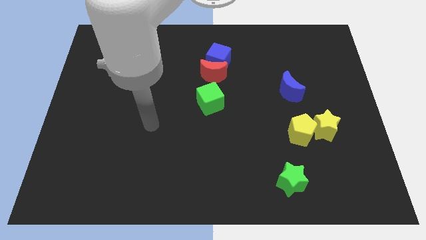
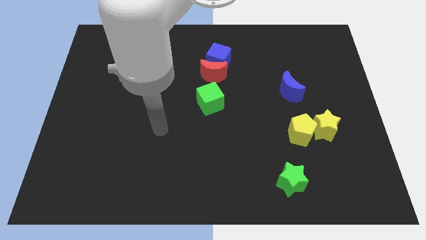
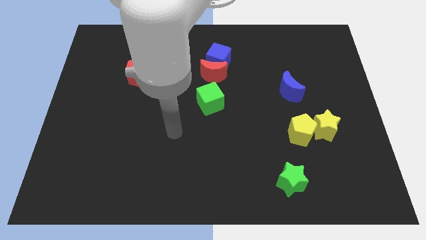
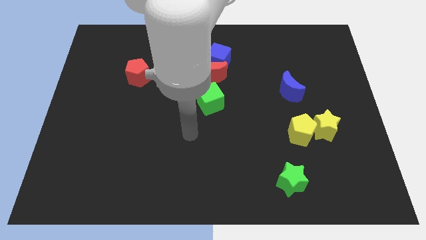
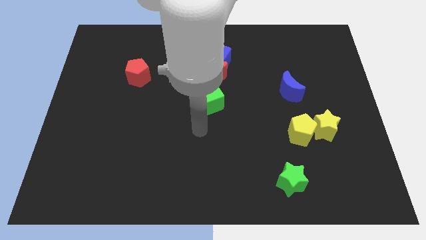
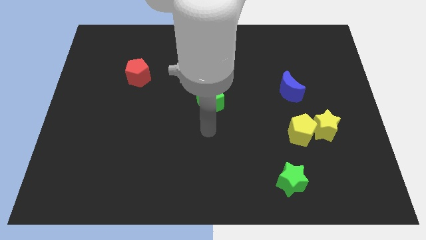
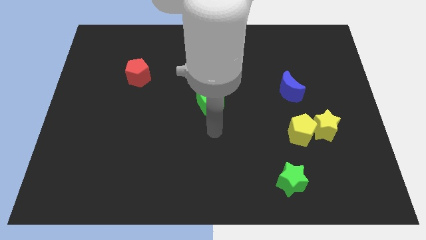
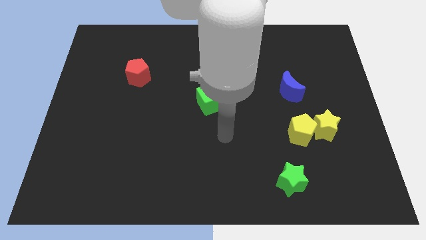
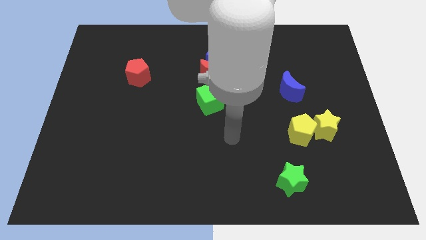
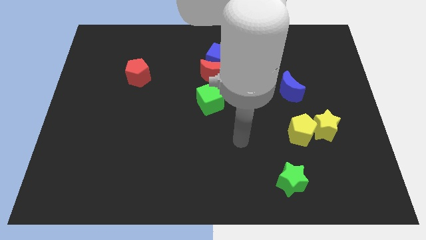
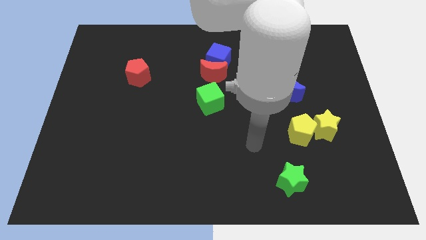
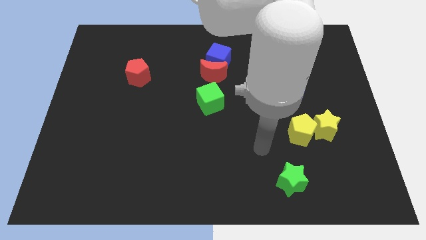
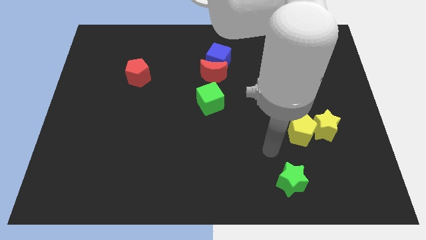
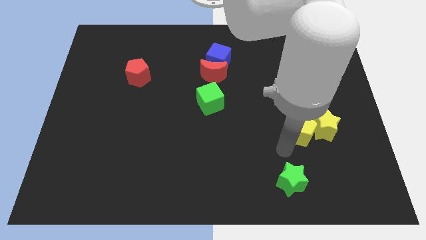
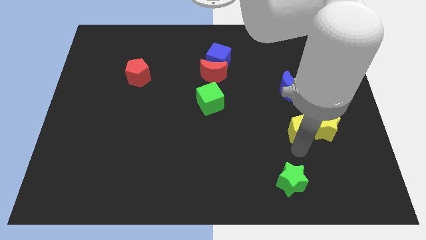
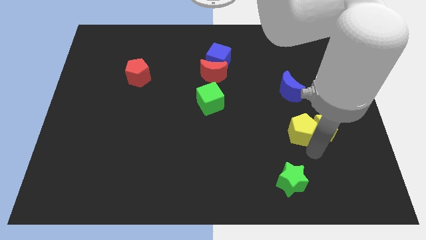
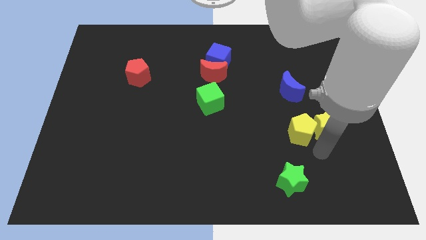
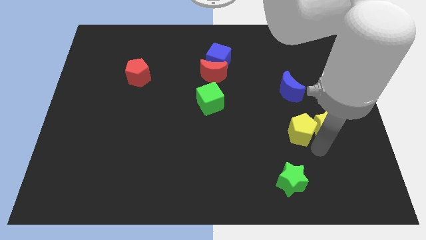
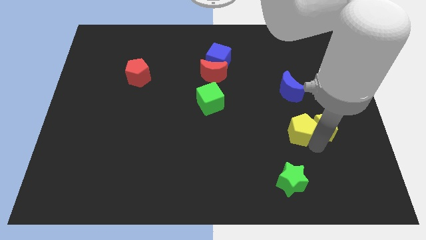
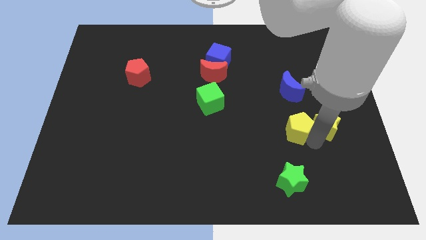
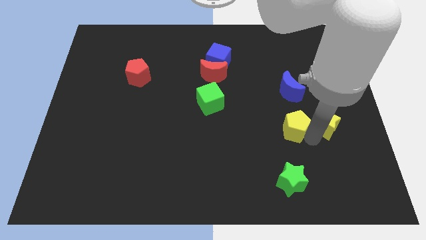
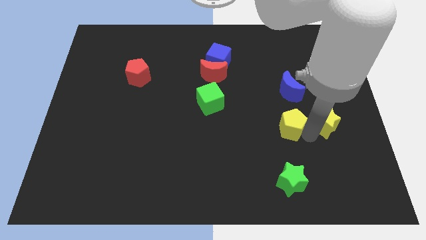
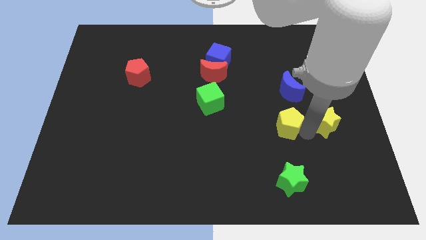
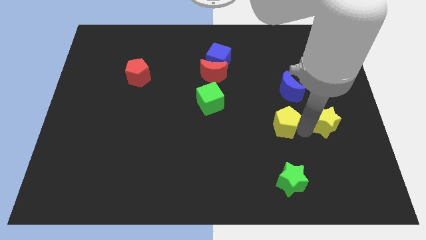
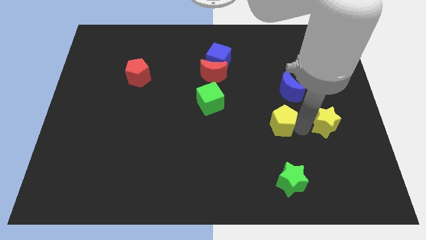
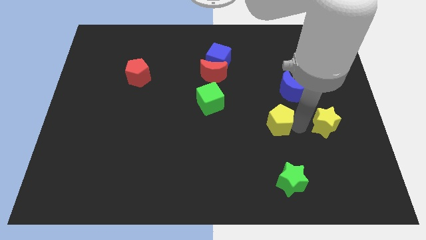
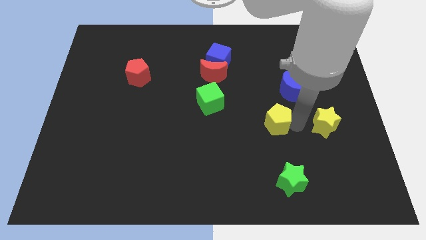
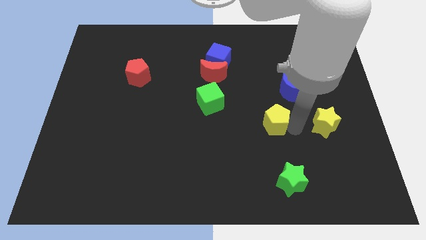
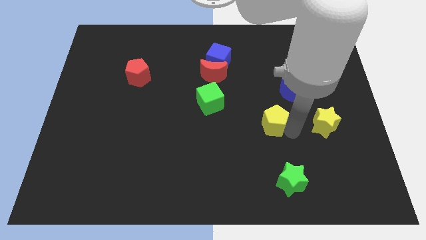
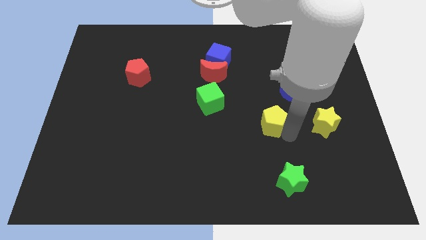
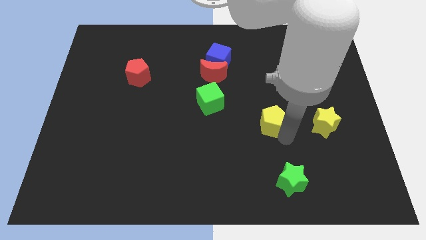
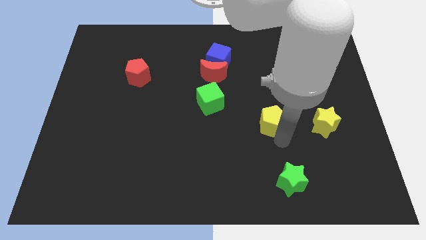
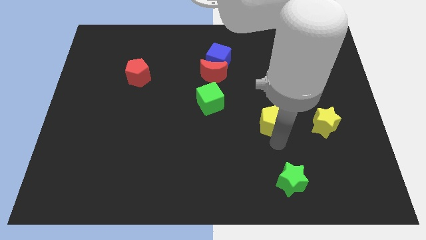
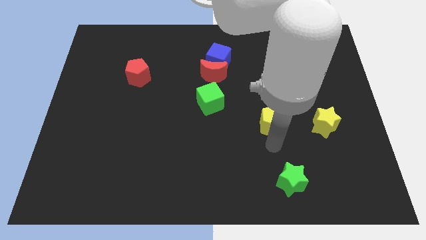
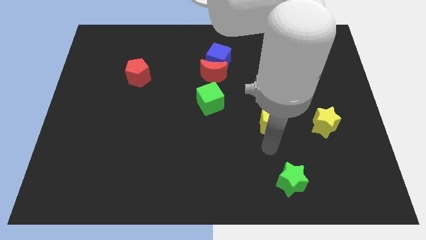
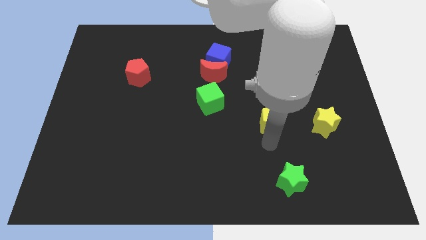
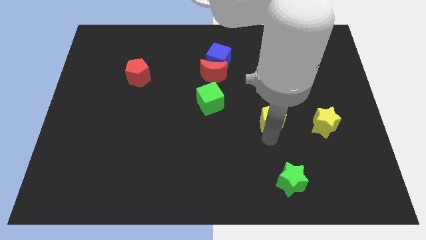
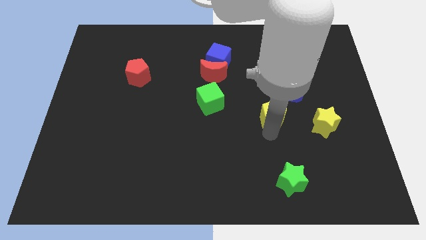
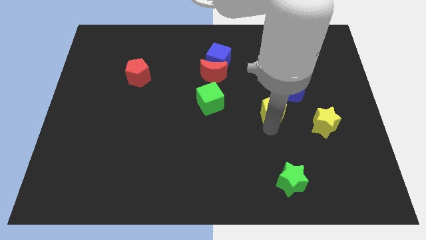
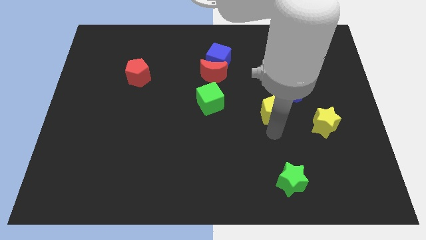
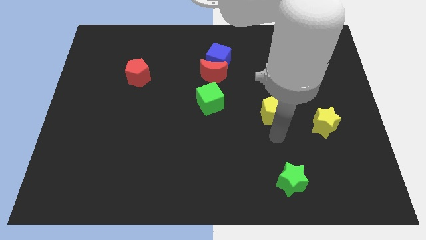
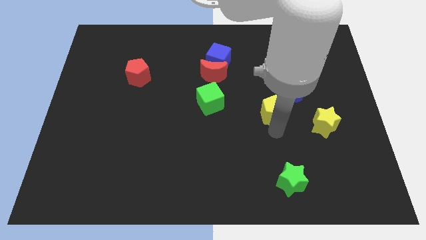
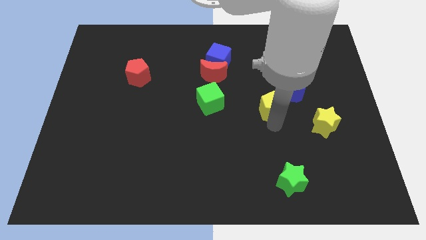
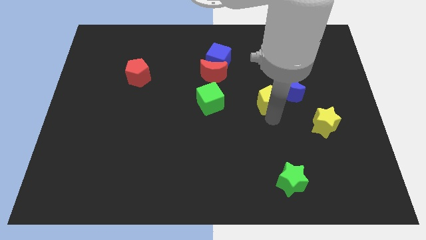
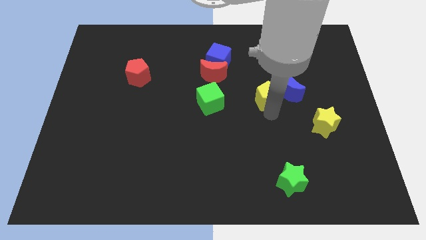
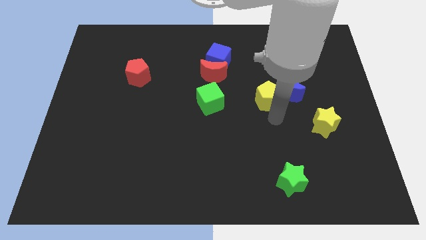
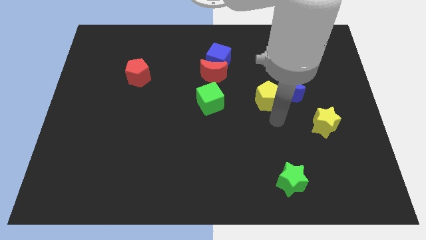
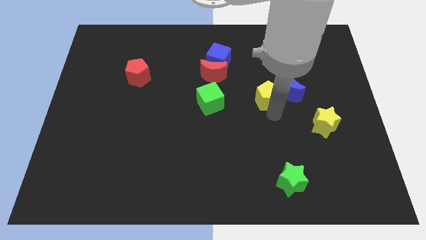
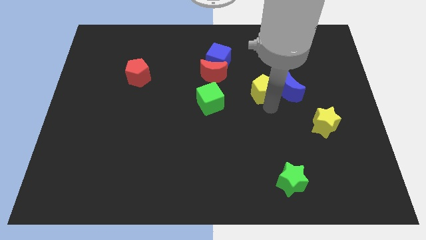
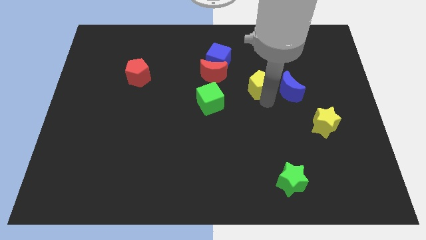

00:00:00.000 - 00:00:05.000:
move the yellow pentagon to the right of the red moon

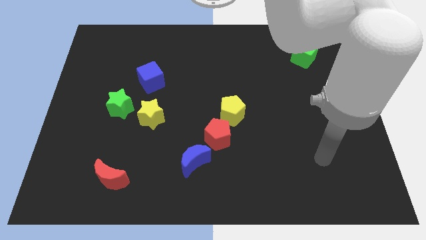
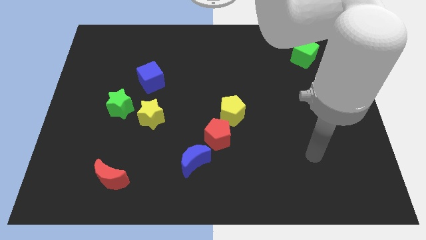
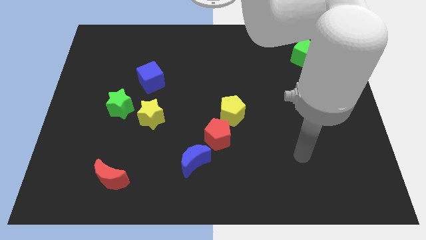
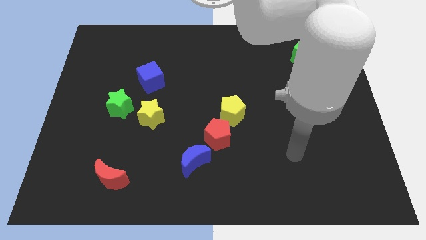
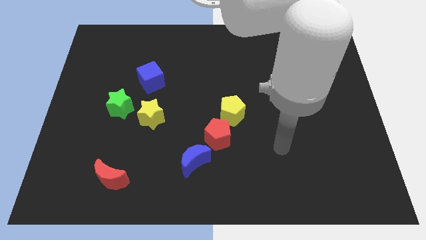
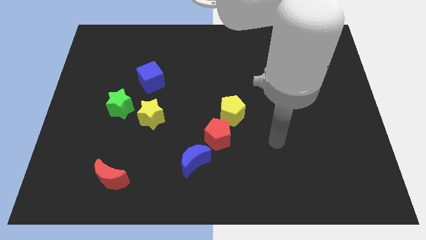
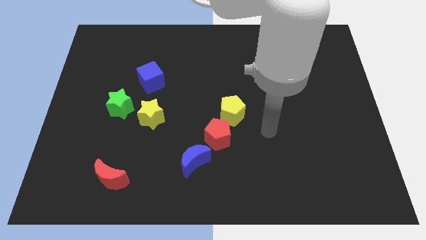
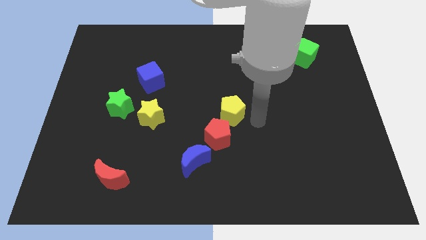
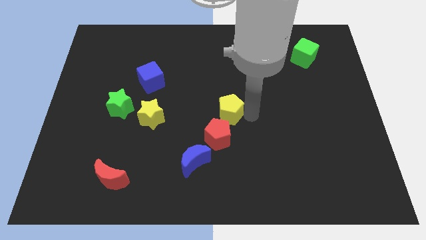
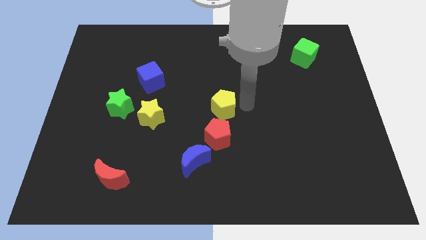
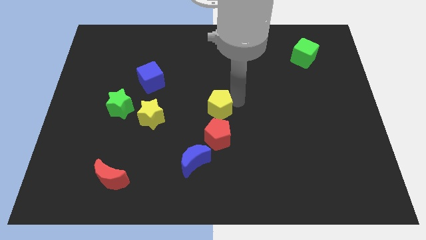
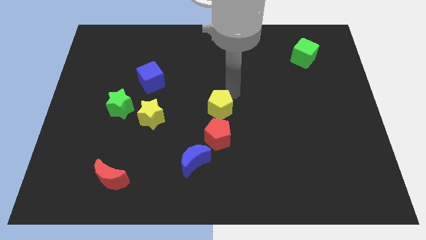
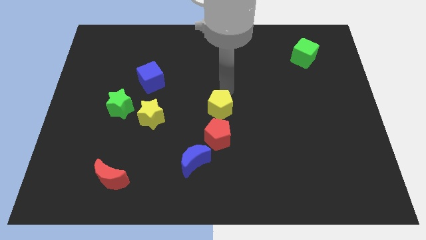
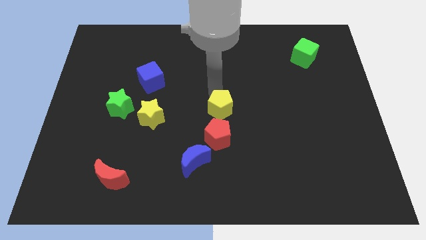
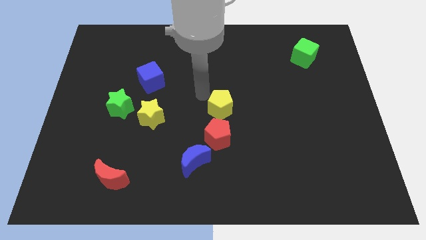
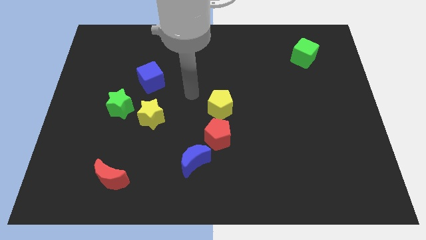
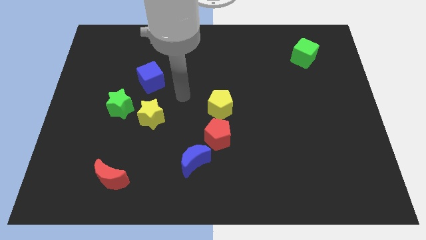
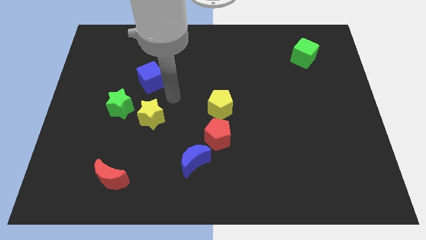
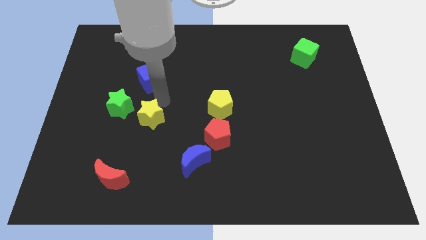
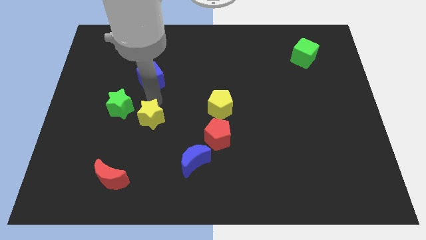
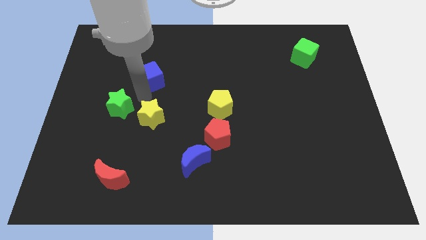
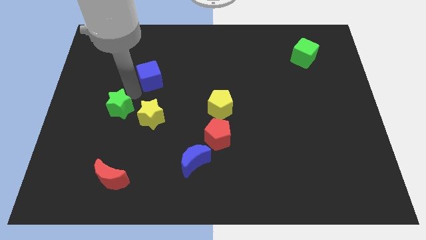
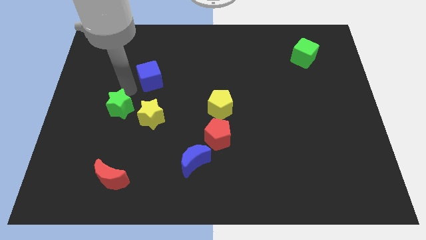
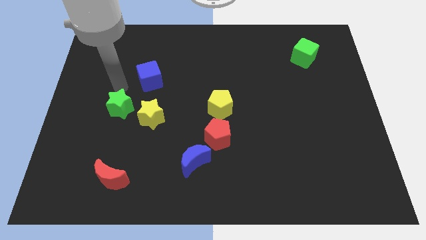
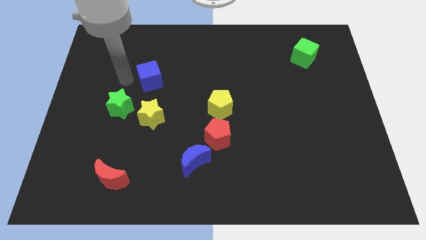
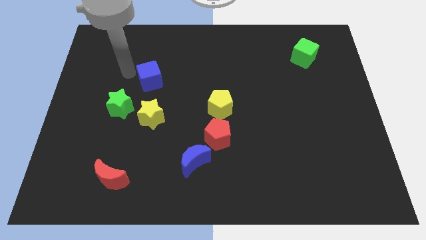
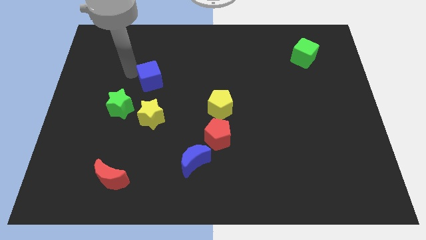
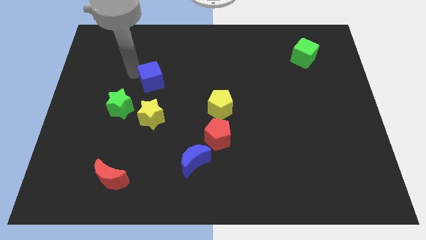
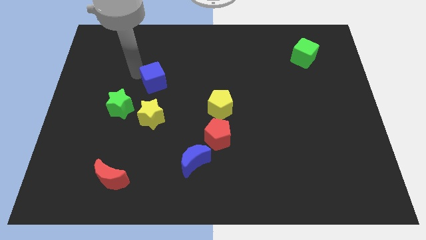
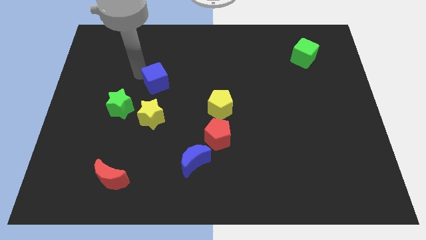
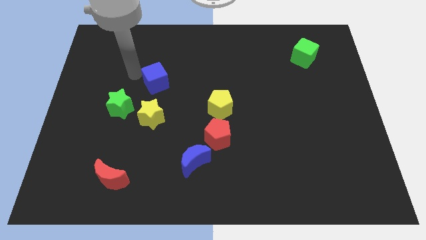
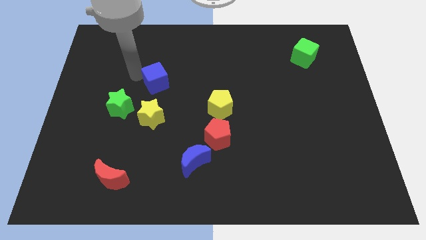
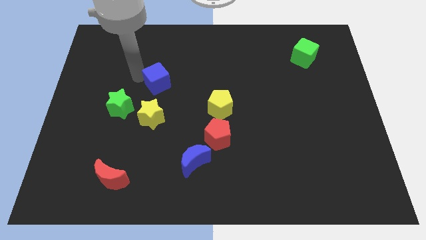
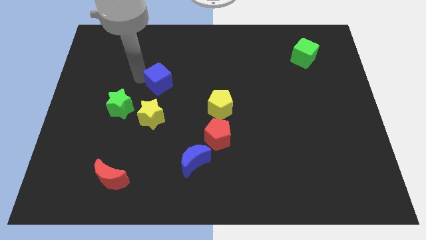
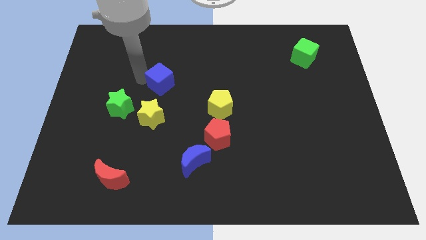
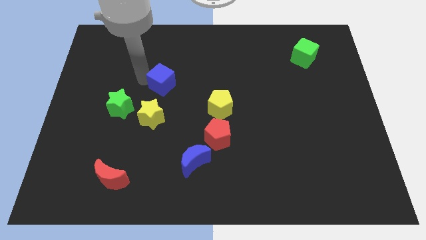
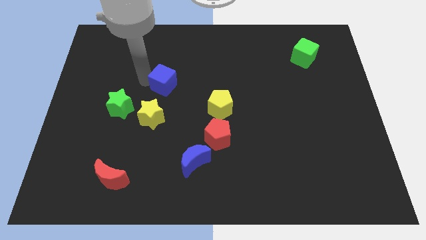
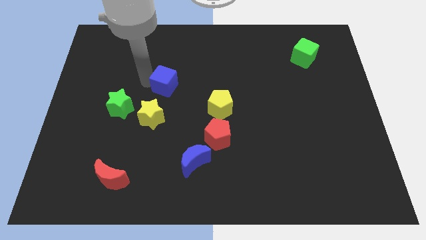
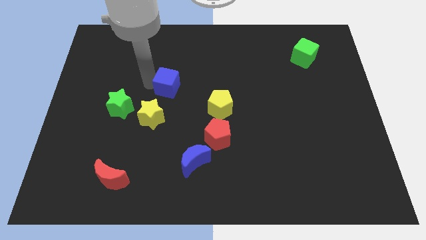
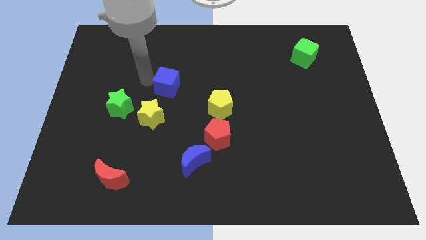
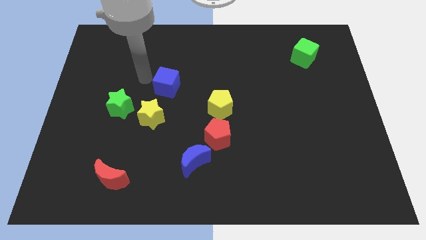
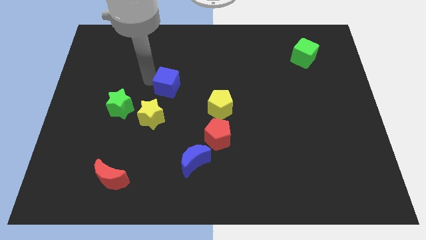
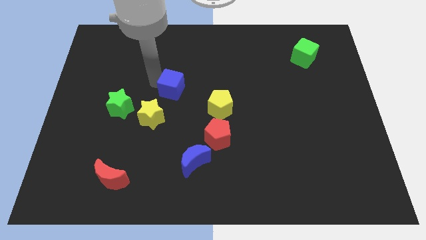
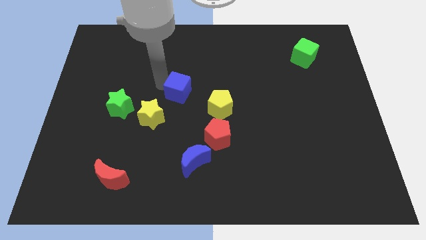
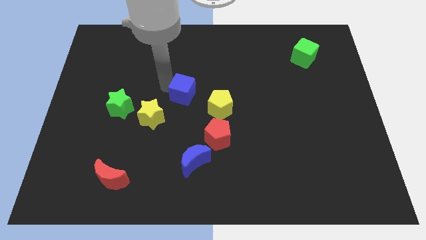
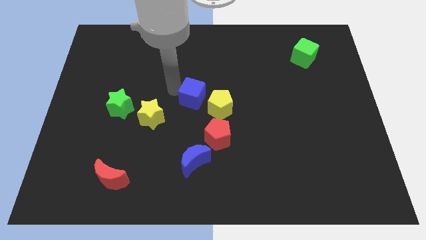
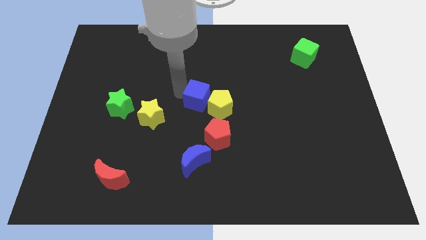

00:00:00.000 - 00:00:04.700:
push the blue cube to the top side of the red pentagon
